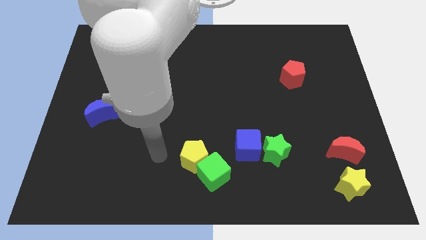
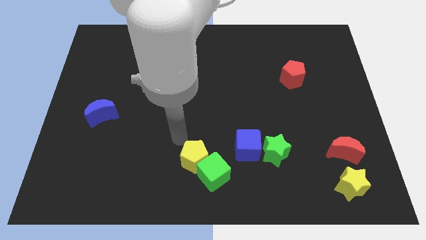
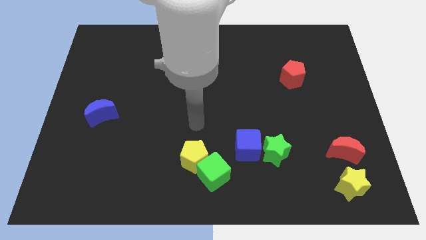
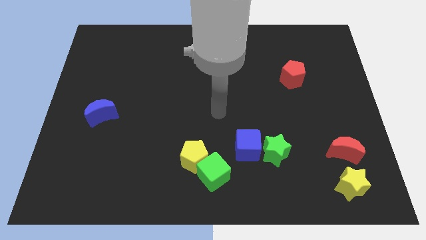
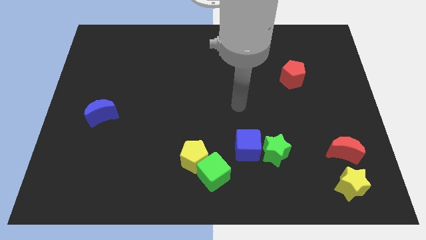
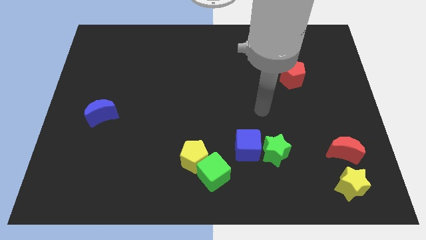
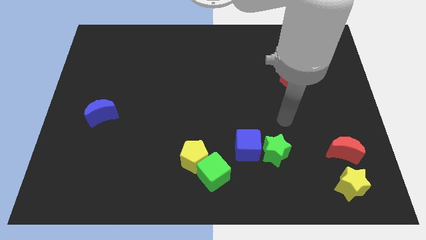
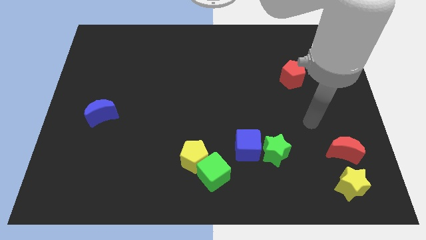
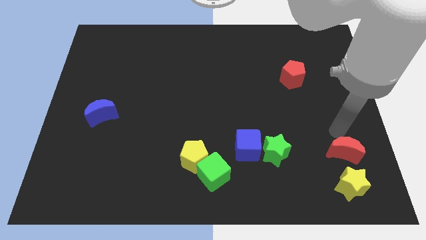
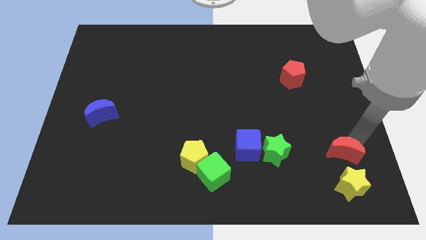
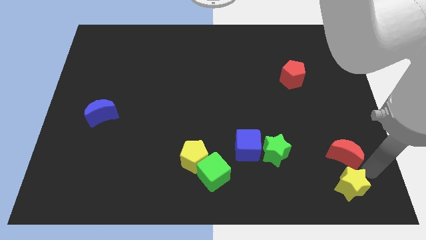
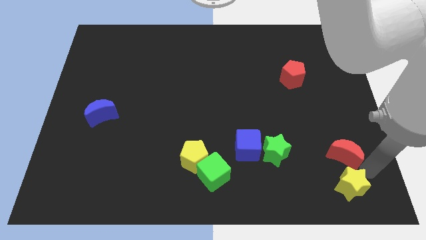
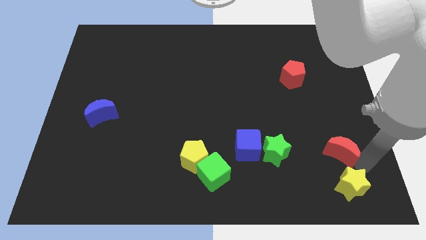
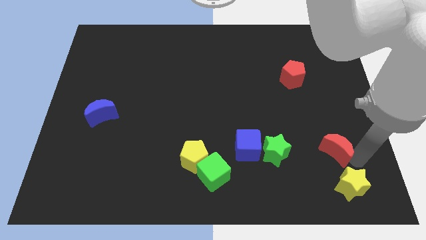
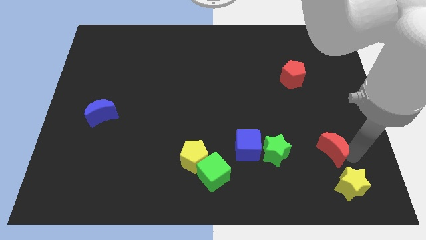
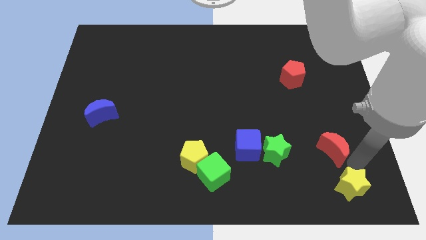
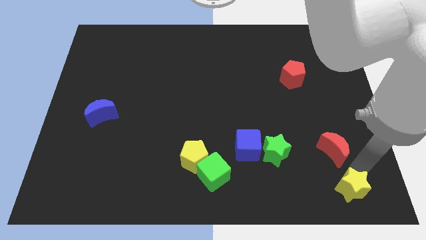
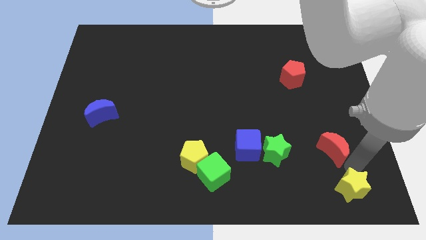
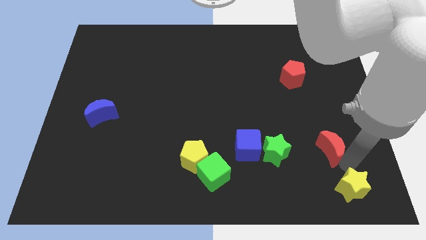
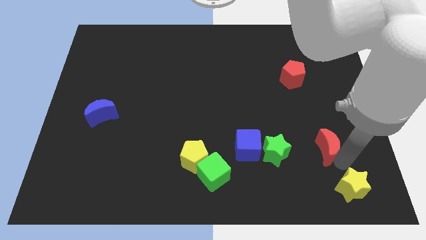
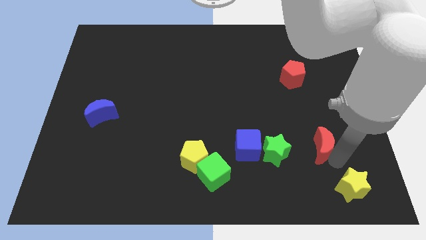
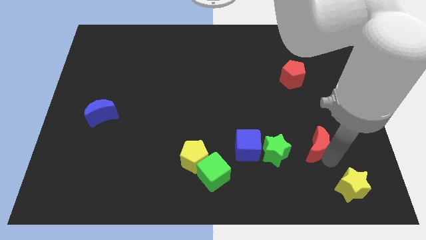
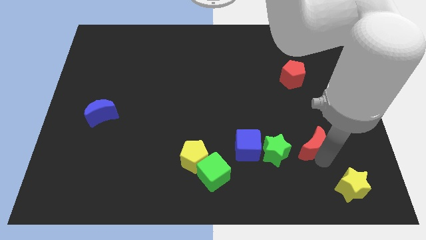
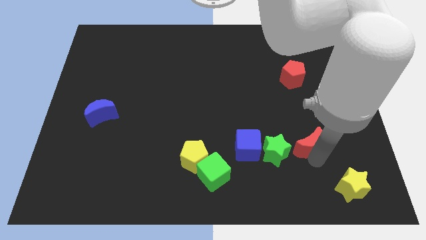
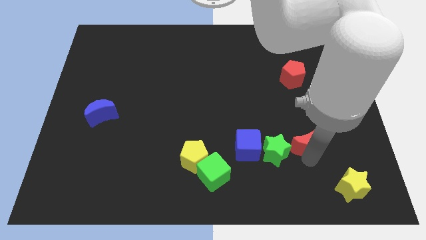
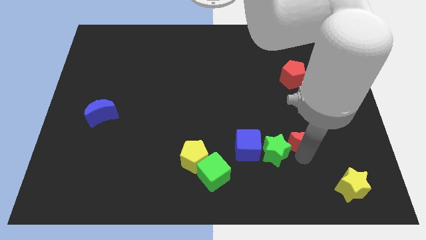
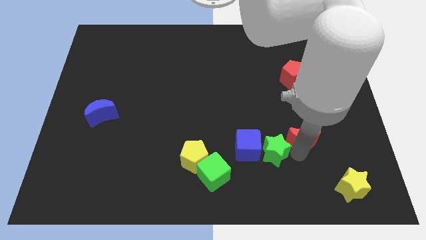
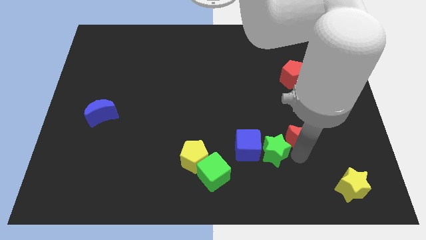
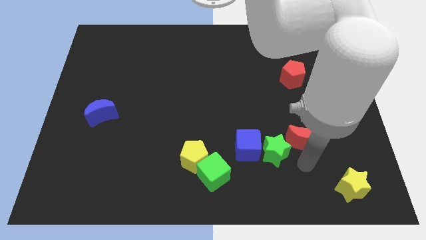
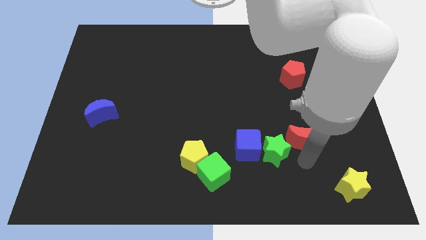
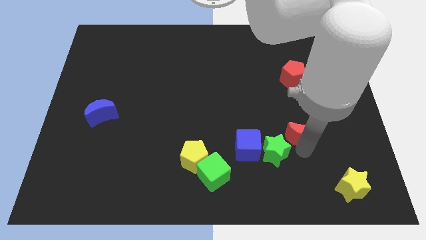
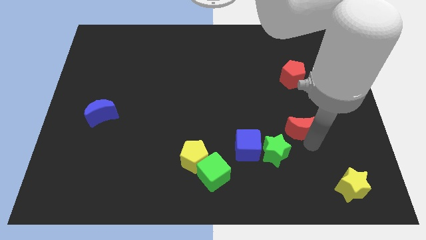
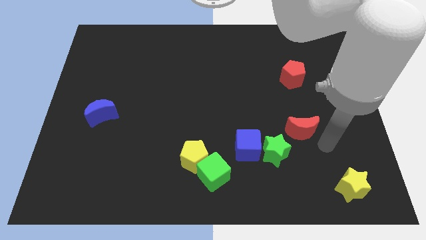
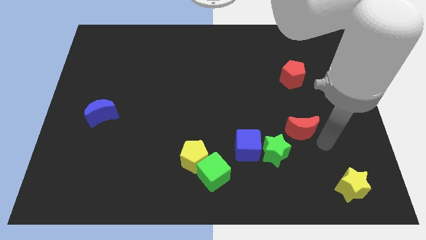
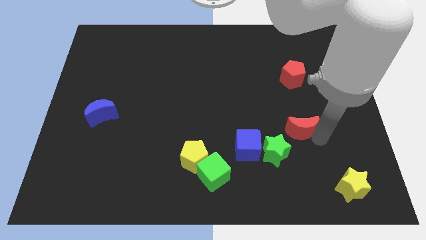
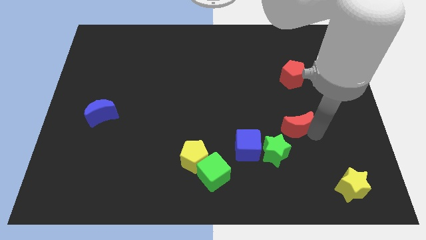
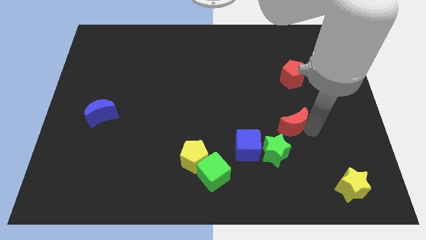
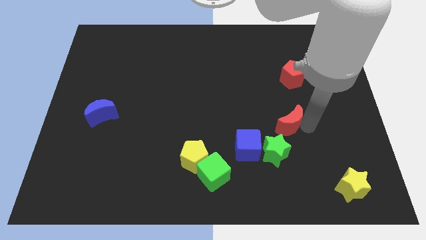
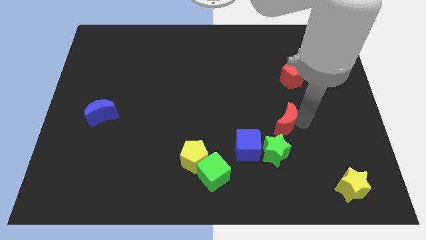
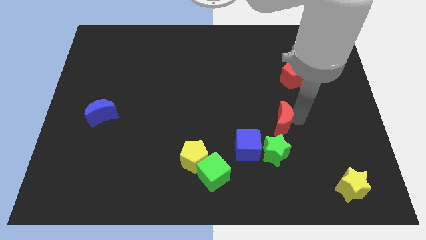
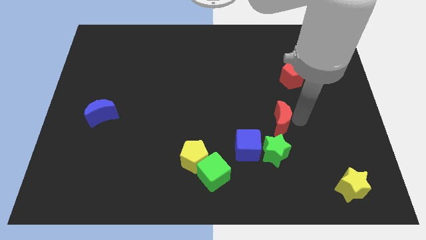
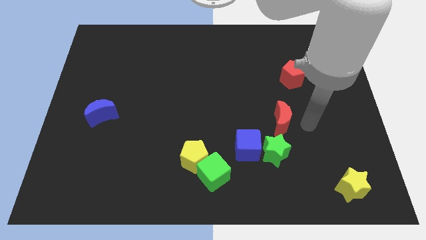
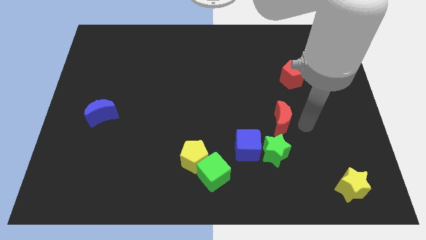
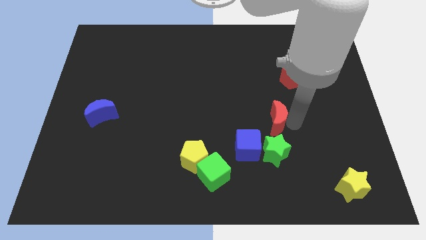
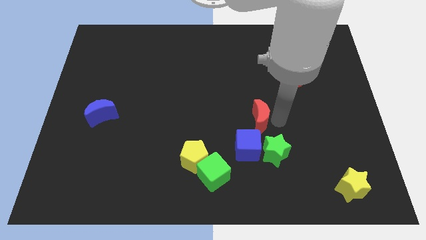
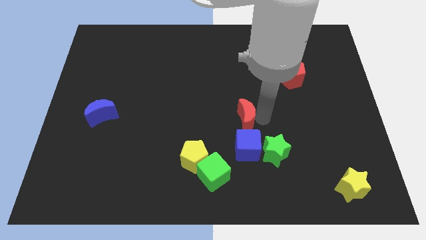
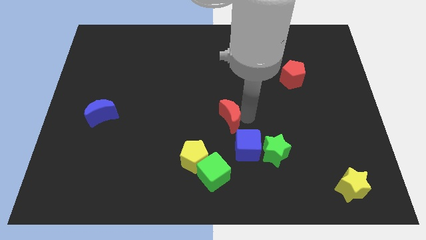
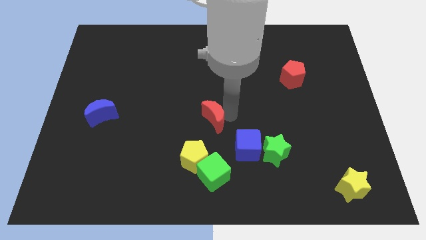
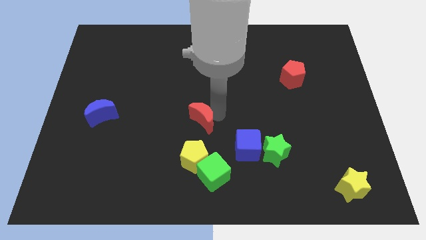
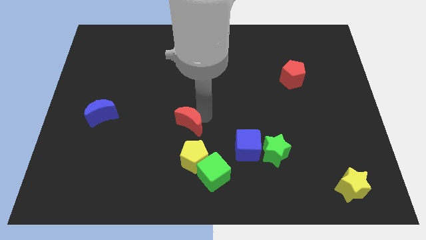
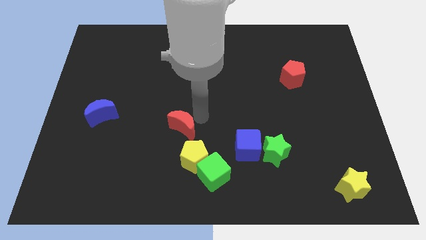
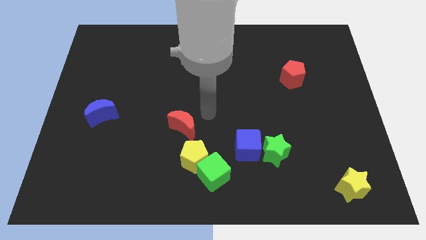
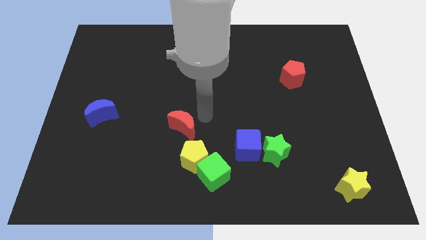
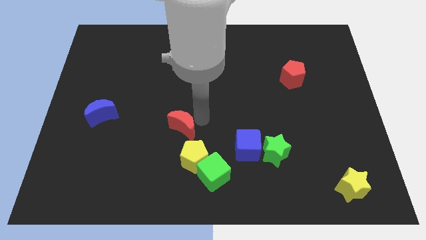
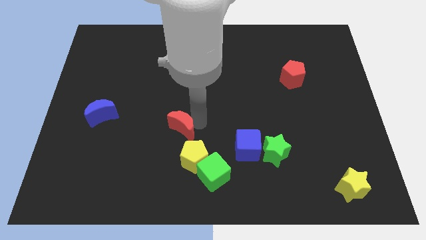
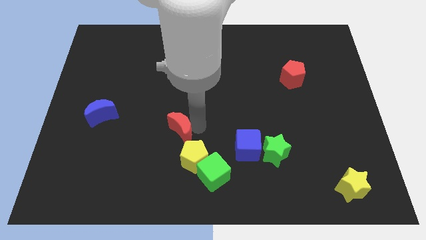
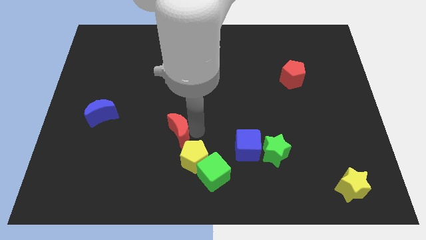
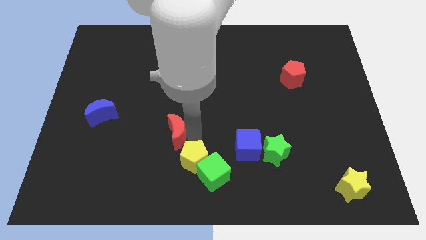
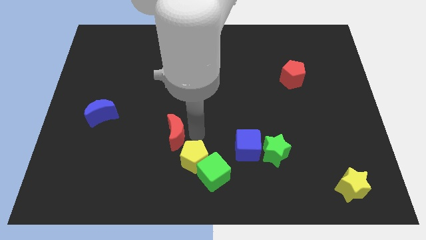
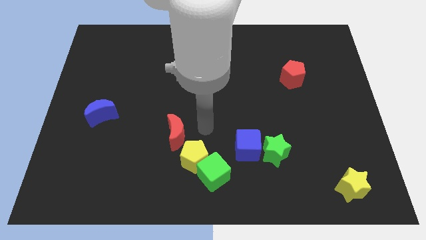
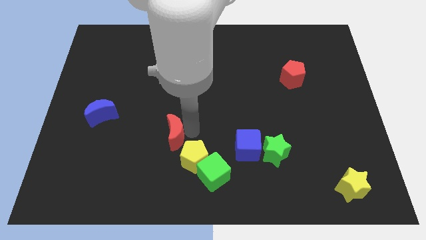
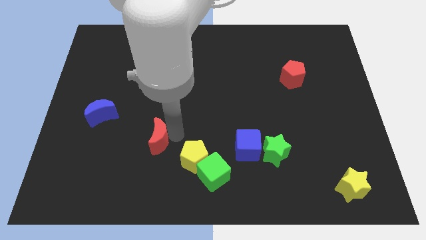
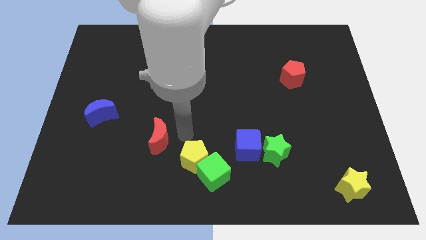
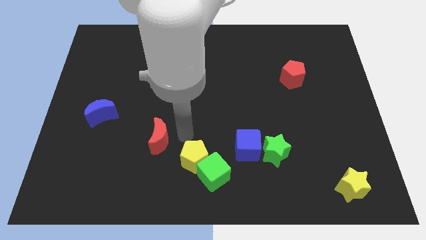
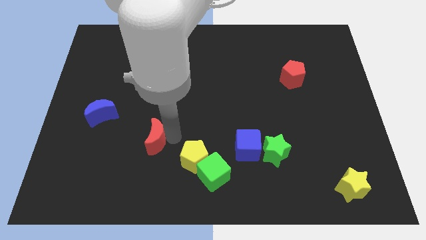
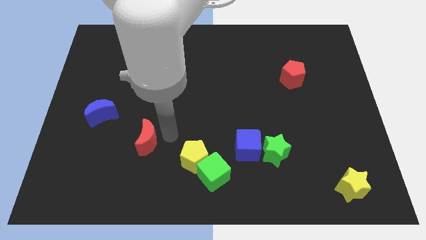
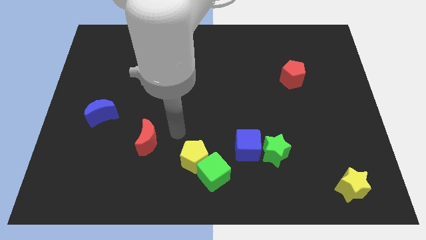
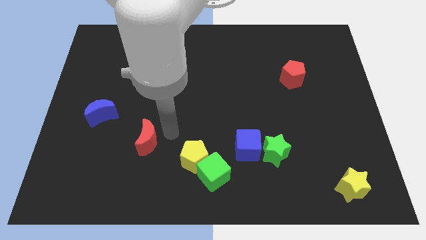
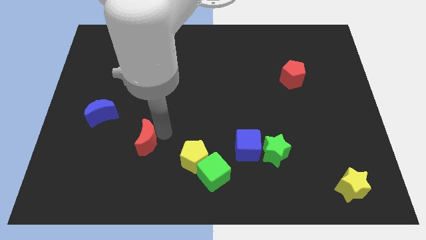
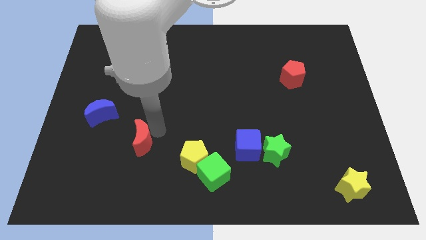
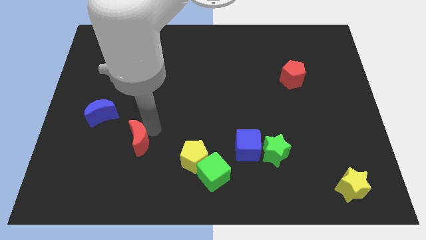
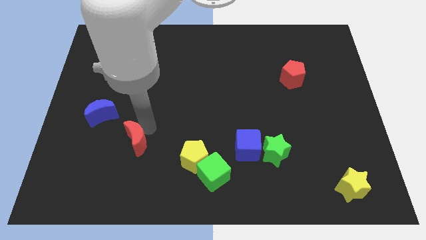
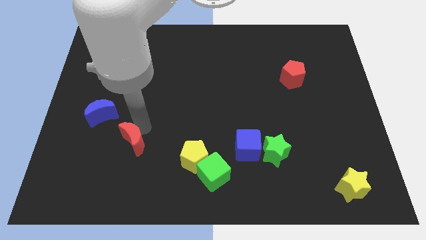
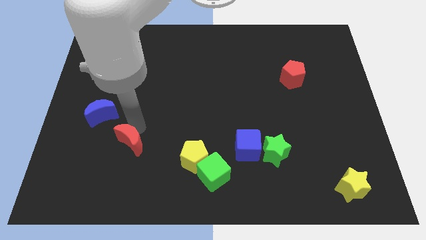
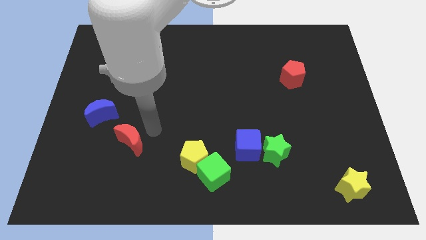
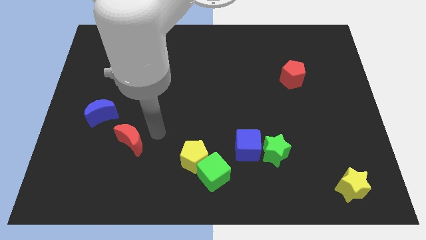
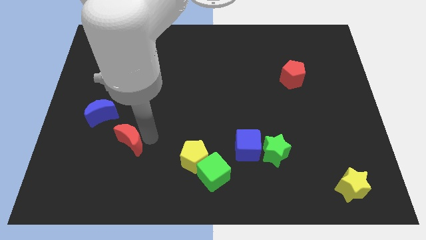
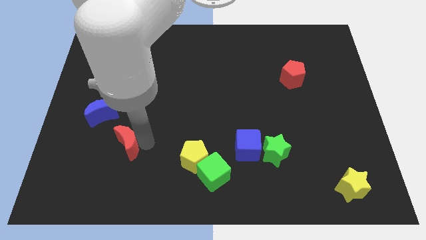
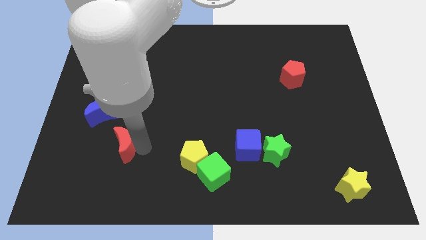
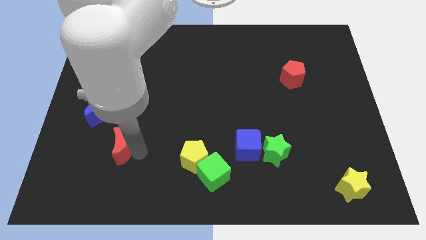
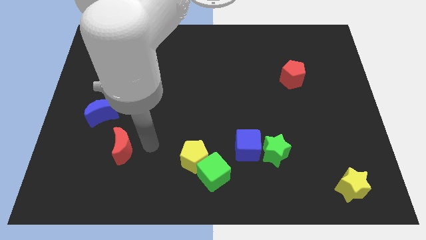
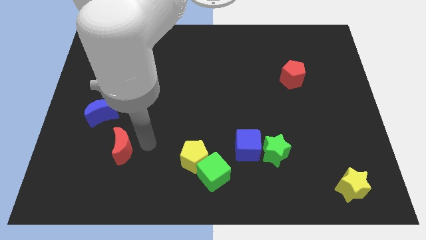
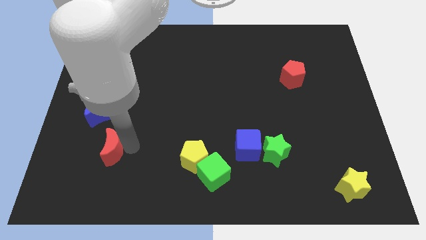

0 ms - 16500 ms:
slide the red moon below the blue moon
